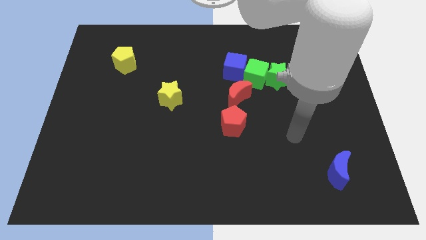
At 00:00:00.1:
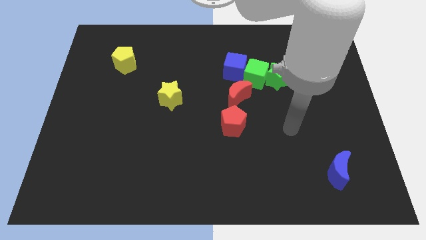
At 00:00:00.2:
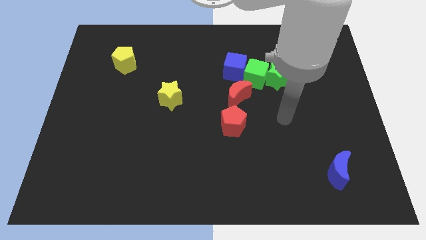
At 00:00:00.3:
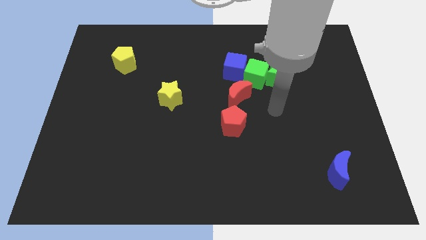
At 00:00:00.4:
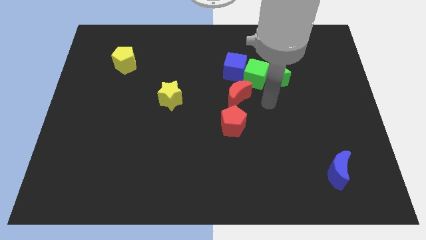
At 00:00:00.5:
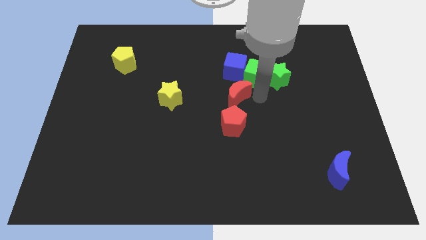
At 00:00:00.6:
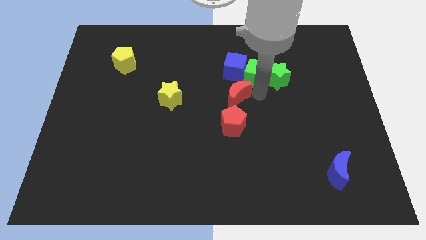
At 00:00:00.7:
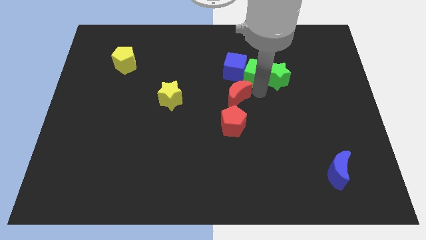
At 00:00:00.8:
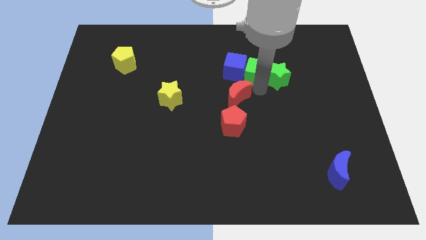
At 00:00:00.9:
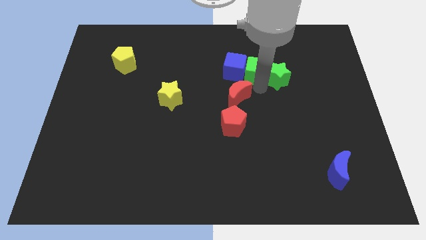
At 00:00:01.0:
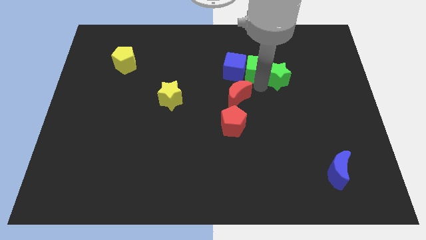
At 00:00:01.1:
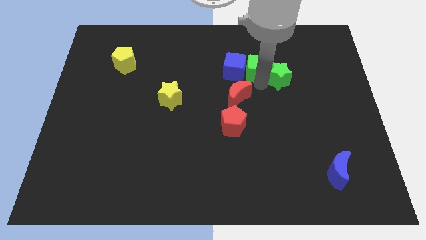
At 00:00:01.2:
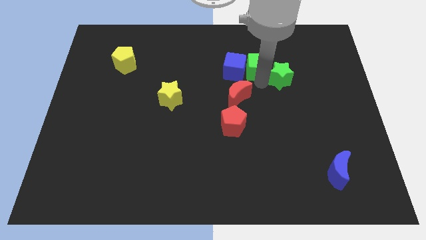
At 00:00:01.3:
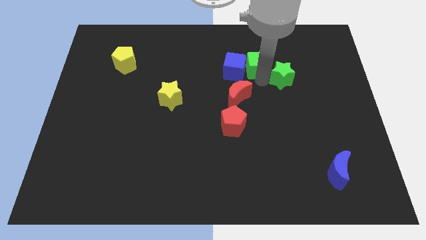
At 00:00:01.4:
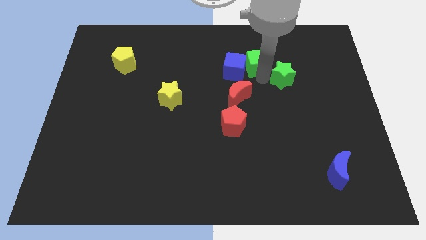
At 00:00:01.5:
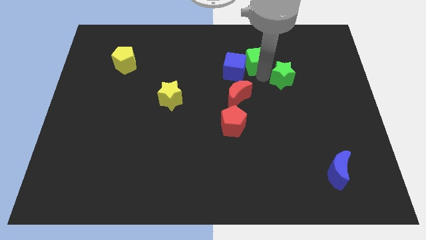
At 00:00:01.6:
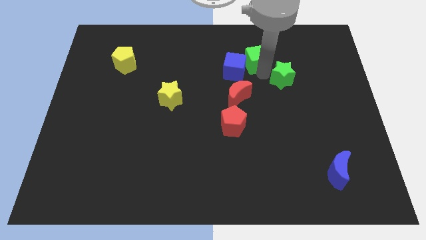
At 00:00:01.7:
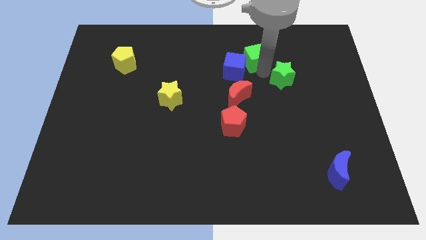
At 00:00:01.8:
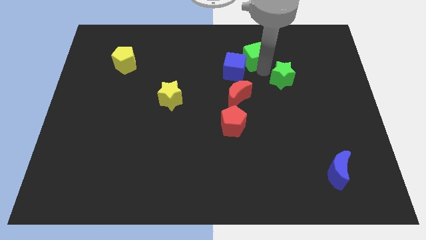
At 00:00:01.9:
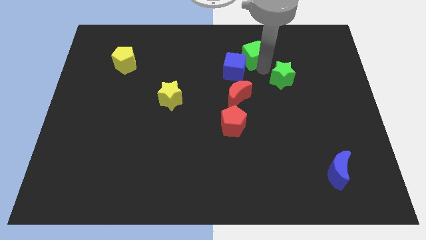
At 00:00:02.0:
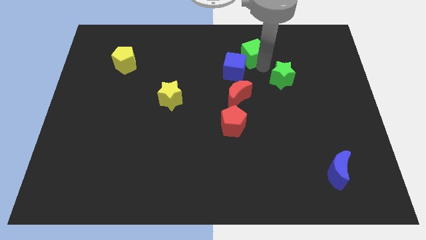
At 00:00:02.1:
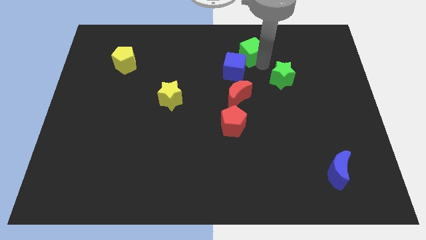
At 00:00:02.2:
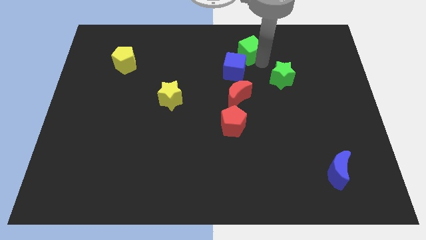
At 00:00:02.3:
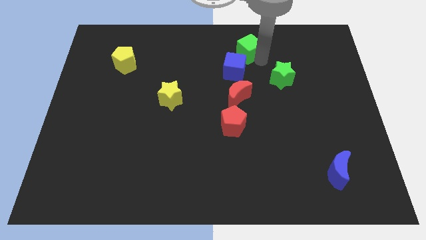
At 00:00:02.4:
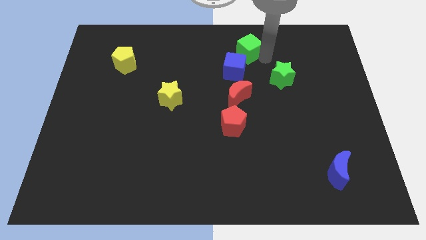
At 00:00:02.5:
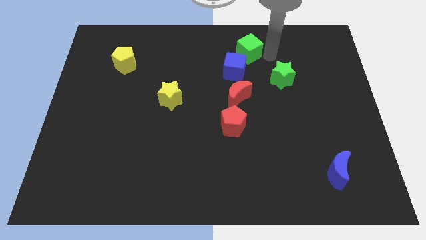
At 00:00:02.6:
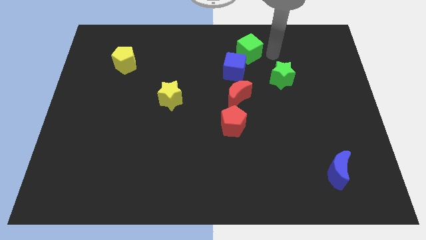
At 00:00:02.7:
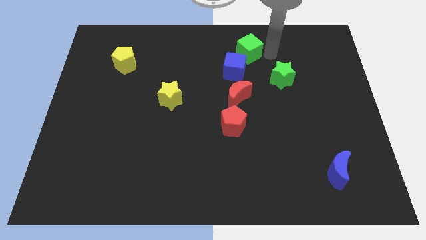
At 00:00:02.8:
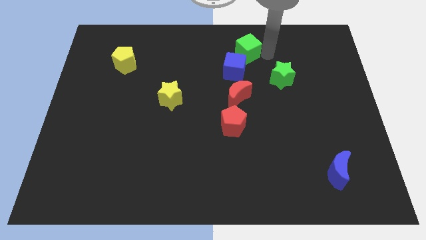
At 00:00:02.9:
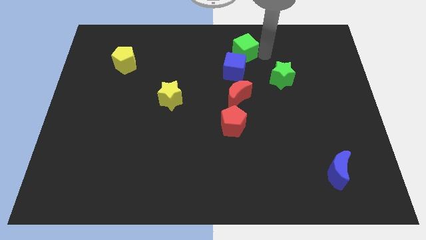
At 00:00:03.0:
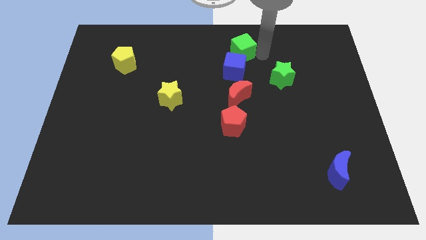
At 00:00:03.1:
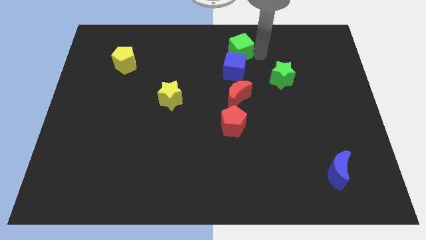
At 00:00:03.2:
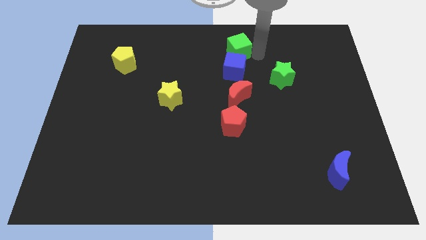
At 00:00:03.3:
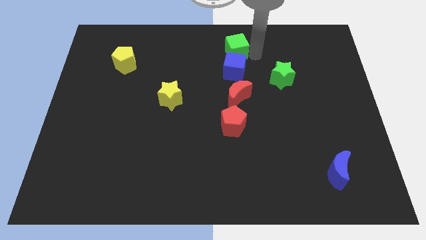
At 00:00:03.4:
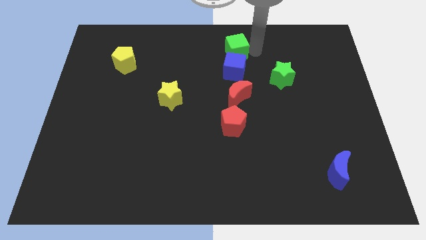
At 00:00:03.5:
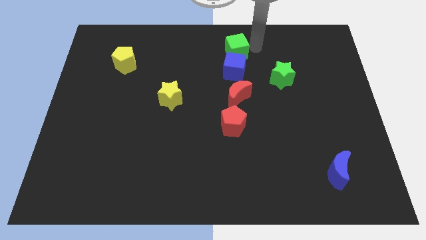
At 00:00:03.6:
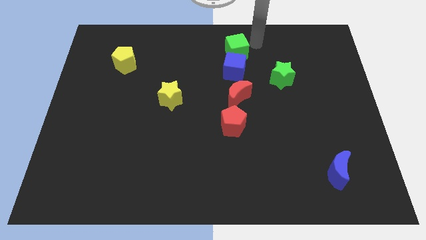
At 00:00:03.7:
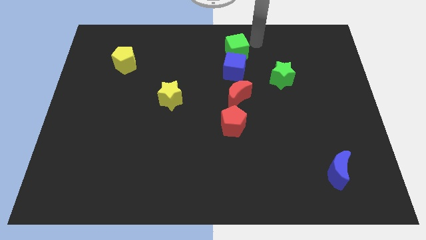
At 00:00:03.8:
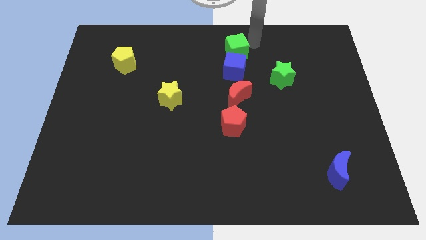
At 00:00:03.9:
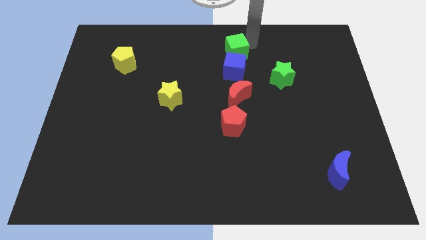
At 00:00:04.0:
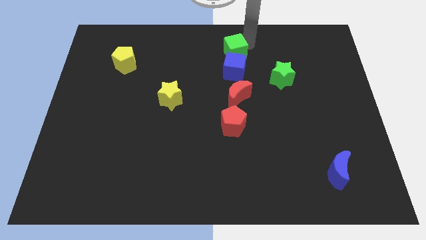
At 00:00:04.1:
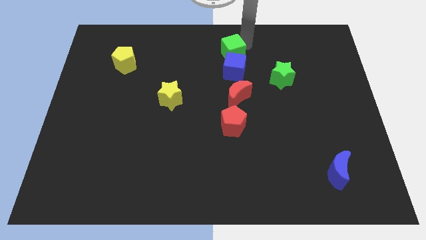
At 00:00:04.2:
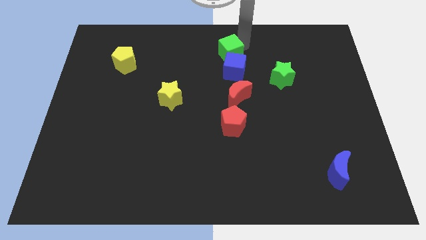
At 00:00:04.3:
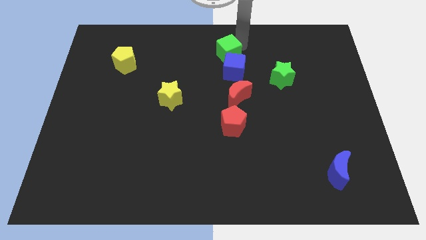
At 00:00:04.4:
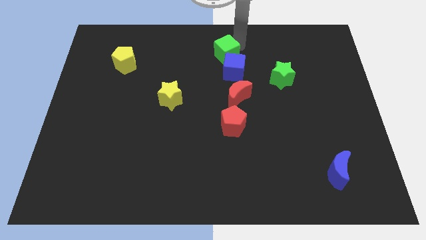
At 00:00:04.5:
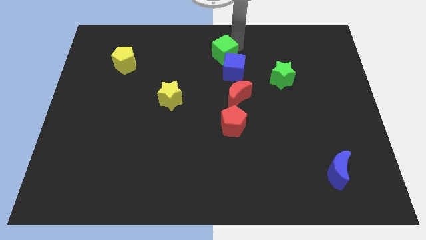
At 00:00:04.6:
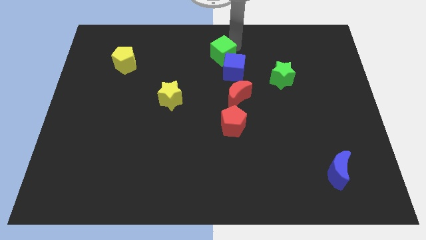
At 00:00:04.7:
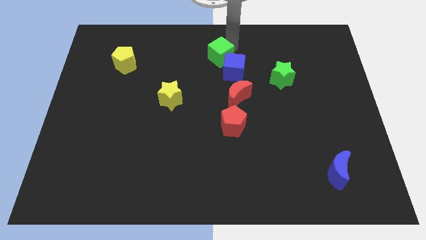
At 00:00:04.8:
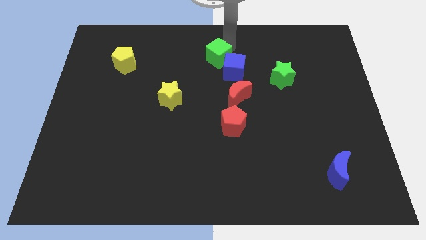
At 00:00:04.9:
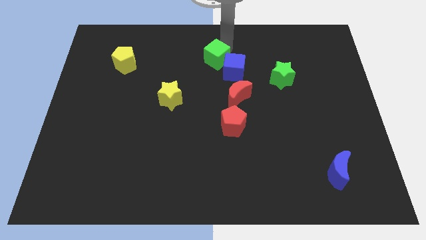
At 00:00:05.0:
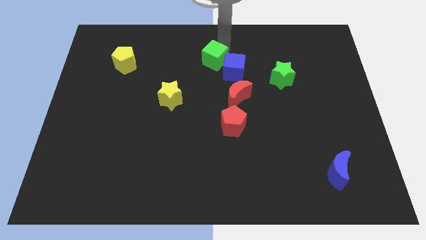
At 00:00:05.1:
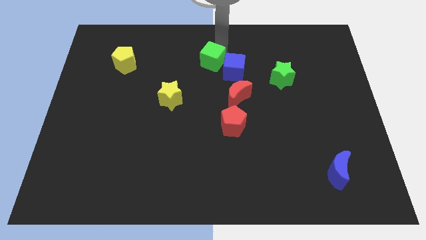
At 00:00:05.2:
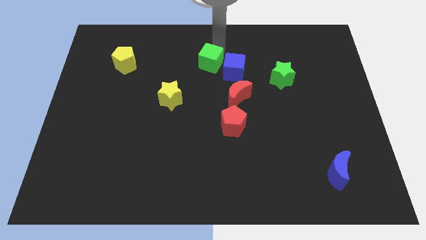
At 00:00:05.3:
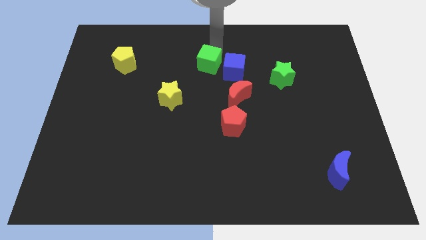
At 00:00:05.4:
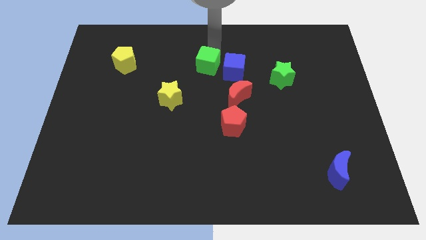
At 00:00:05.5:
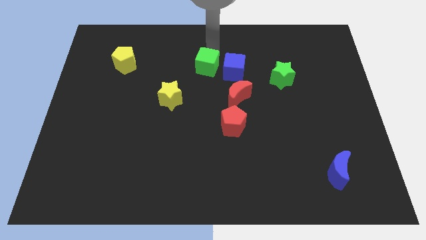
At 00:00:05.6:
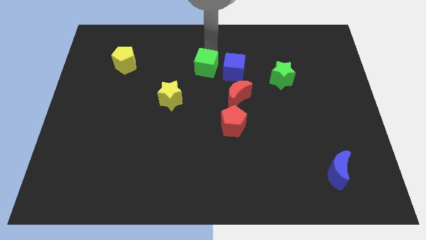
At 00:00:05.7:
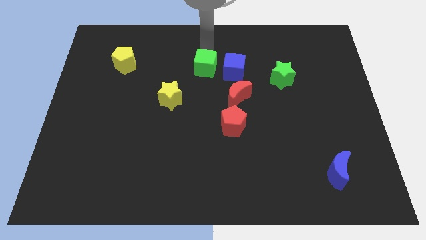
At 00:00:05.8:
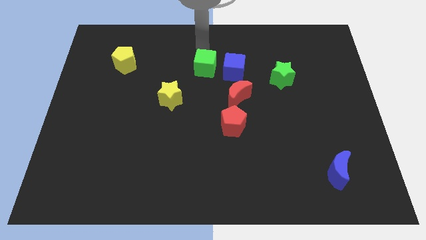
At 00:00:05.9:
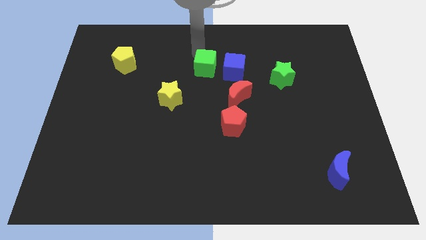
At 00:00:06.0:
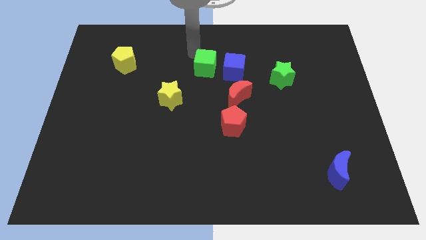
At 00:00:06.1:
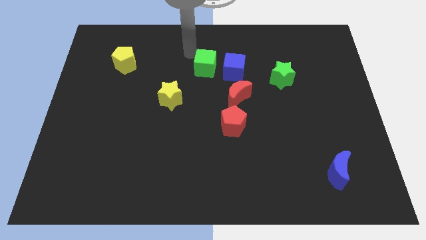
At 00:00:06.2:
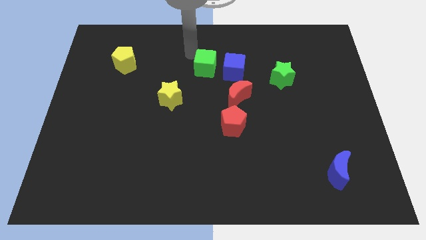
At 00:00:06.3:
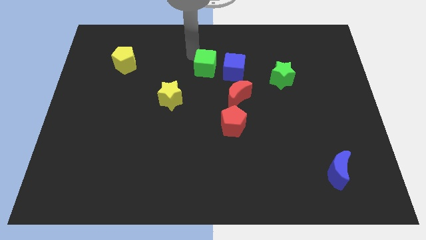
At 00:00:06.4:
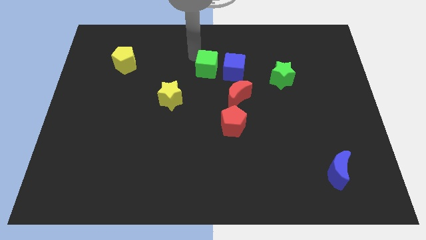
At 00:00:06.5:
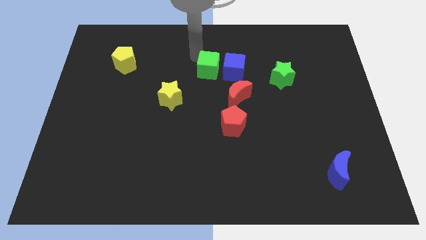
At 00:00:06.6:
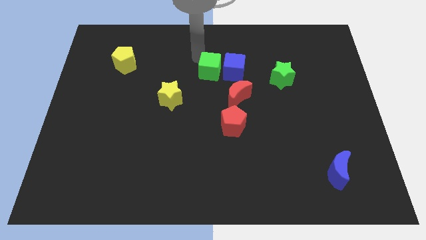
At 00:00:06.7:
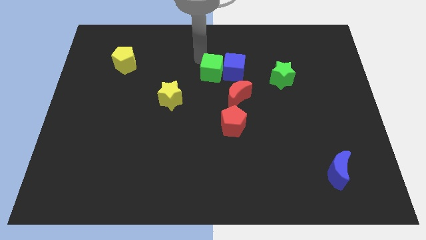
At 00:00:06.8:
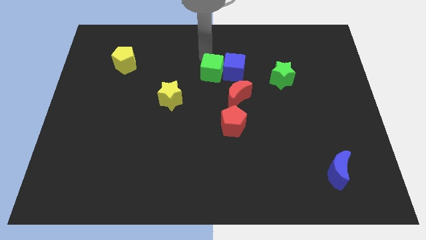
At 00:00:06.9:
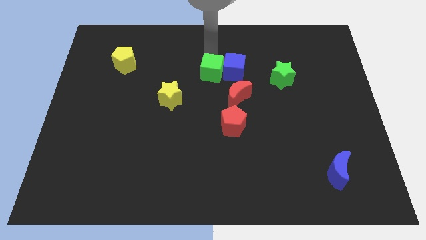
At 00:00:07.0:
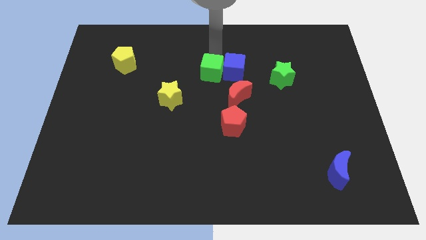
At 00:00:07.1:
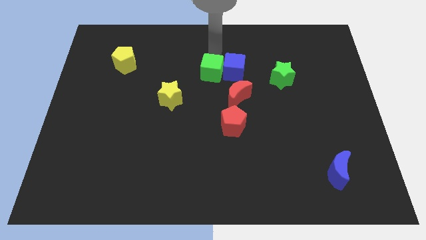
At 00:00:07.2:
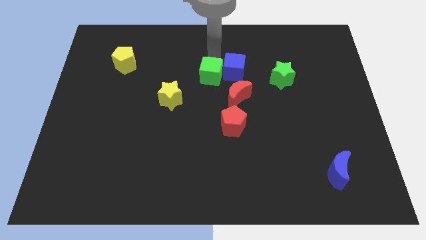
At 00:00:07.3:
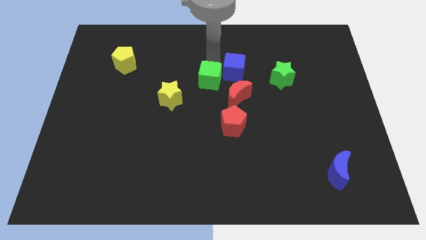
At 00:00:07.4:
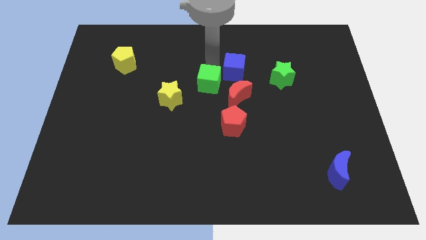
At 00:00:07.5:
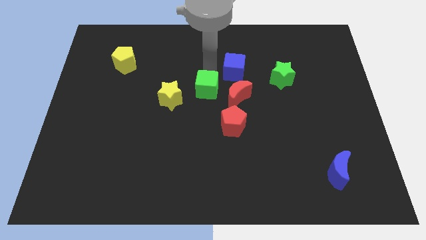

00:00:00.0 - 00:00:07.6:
slide the green cube to the right side of the yellow star

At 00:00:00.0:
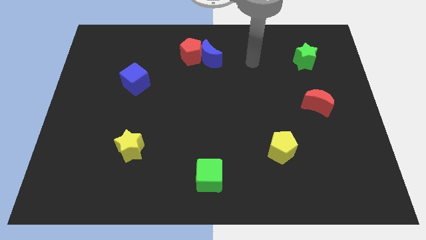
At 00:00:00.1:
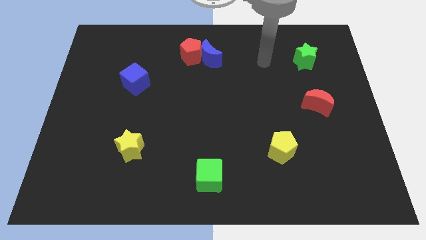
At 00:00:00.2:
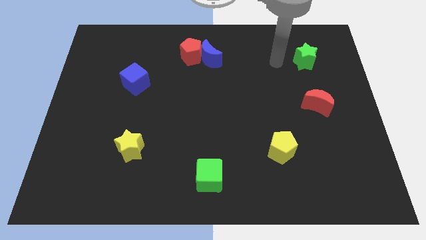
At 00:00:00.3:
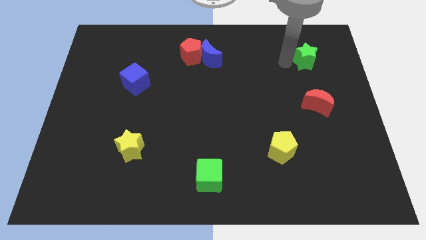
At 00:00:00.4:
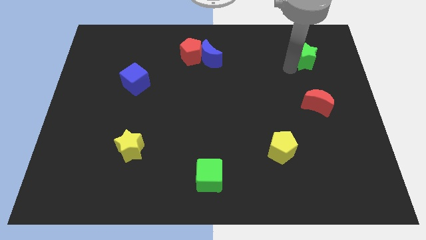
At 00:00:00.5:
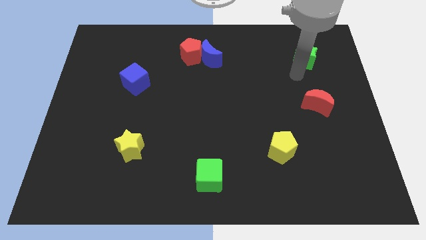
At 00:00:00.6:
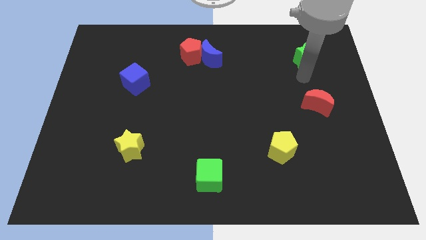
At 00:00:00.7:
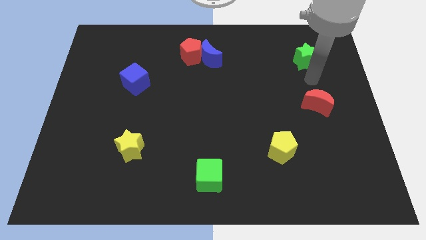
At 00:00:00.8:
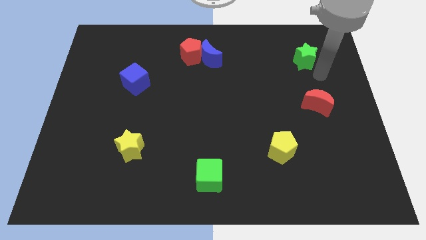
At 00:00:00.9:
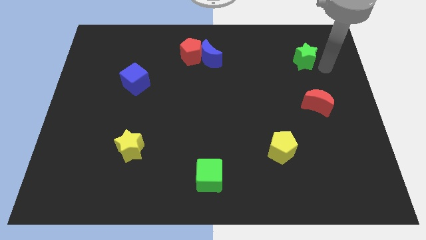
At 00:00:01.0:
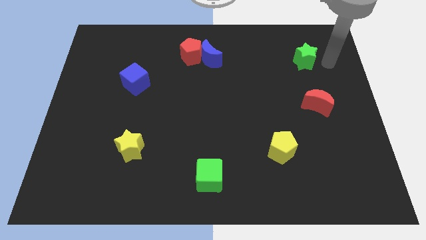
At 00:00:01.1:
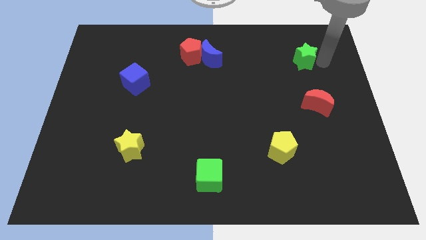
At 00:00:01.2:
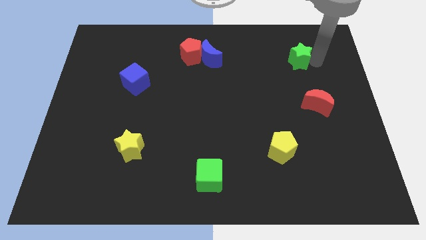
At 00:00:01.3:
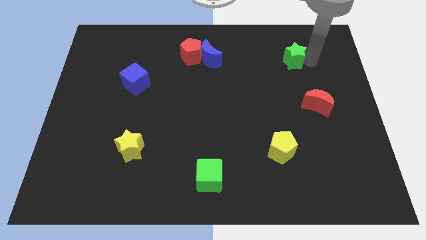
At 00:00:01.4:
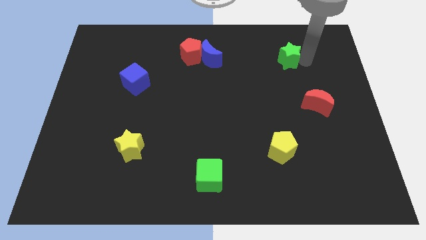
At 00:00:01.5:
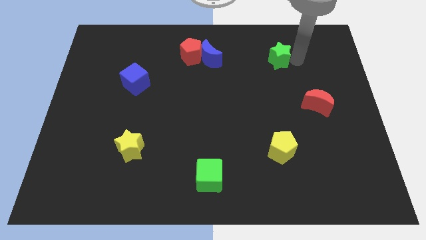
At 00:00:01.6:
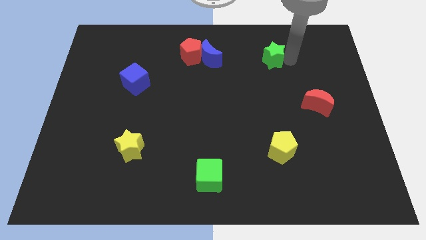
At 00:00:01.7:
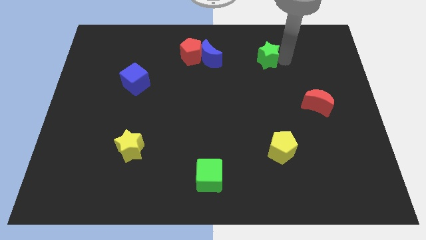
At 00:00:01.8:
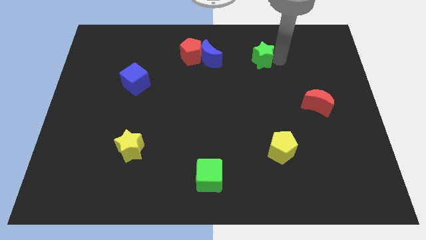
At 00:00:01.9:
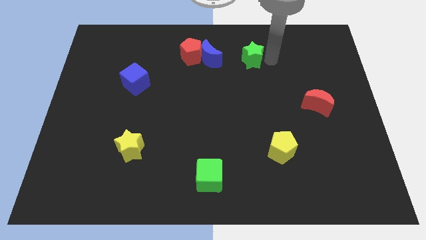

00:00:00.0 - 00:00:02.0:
put the green star to the right of the red pentagon
